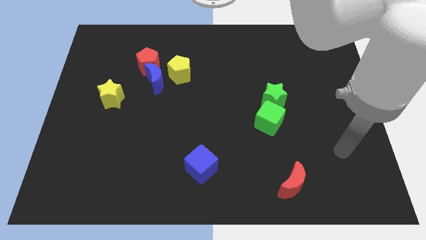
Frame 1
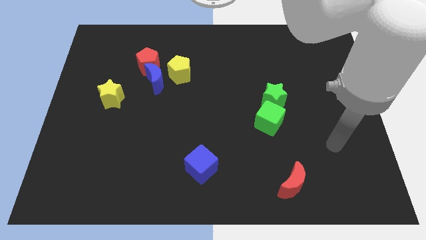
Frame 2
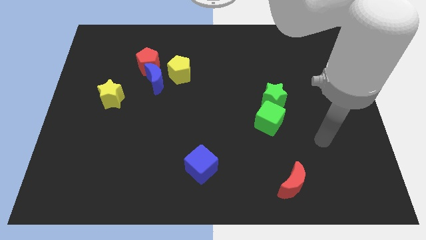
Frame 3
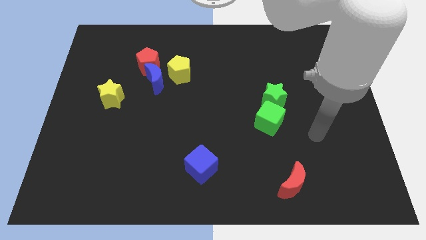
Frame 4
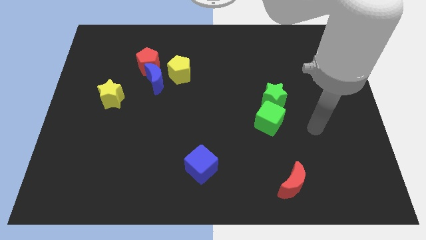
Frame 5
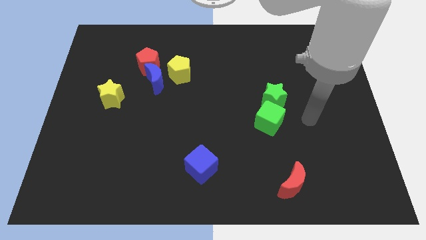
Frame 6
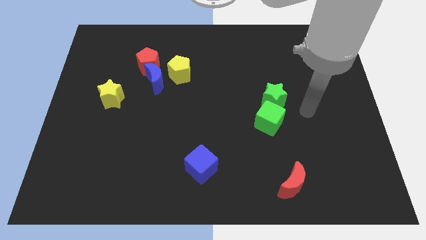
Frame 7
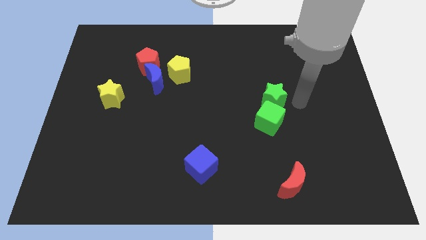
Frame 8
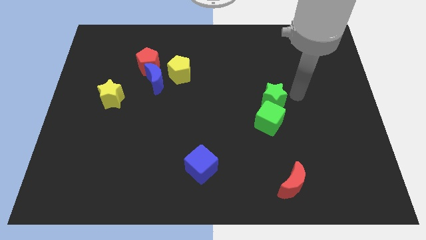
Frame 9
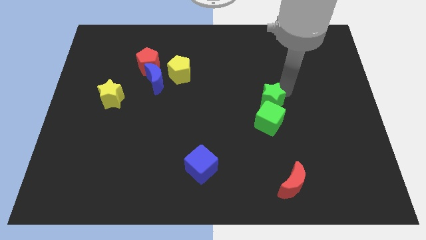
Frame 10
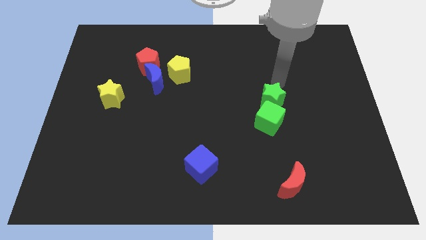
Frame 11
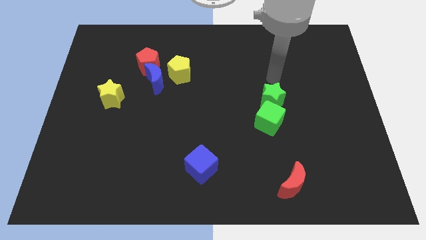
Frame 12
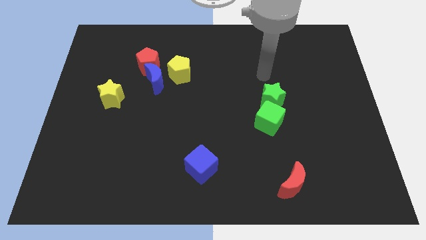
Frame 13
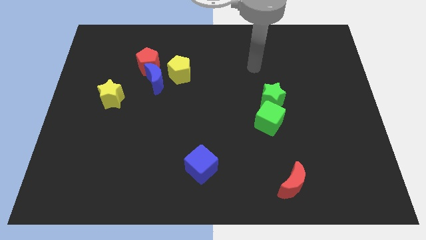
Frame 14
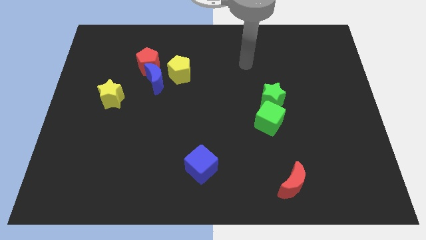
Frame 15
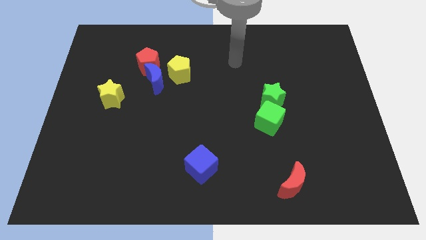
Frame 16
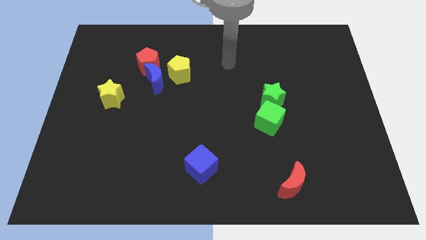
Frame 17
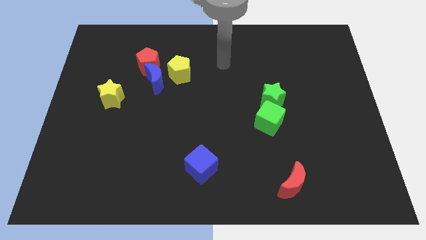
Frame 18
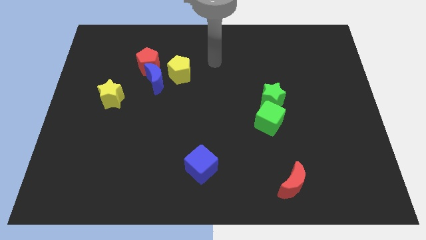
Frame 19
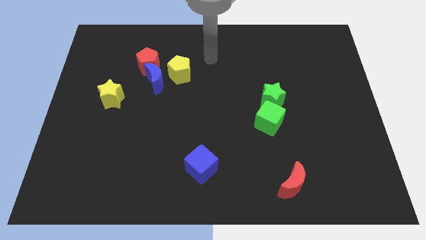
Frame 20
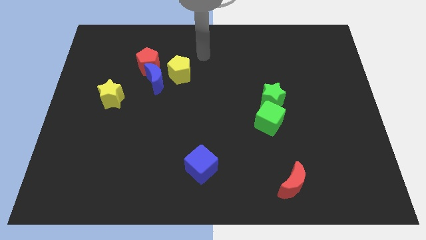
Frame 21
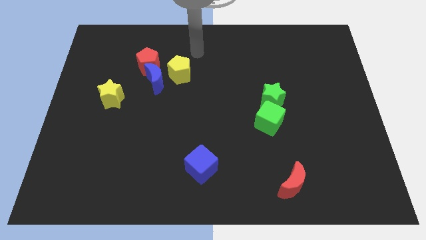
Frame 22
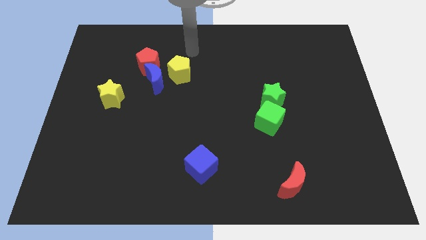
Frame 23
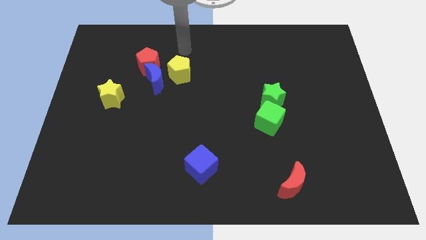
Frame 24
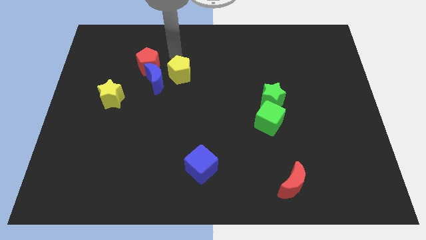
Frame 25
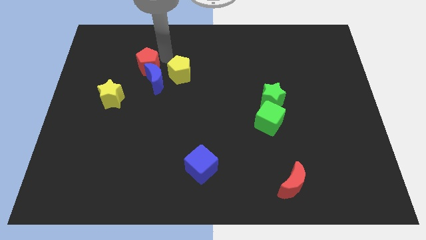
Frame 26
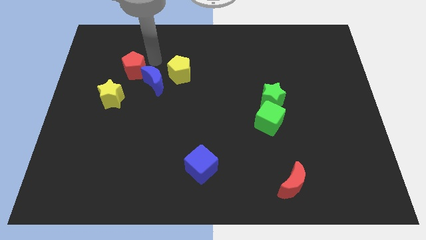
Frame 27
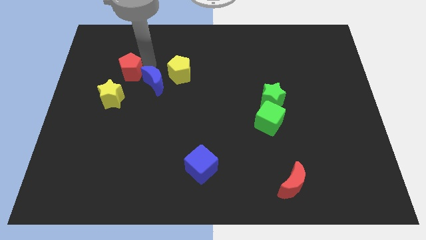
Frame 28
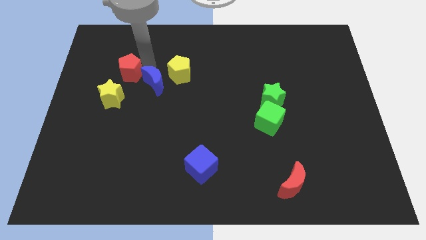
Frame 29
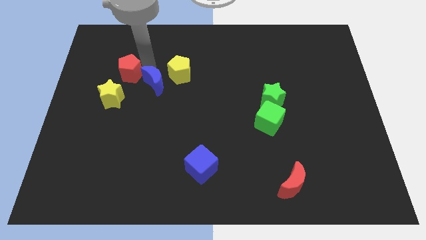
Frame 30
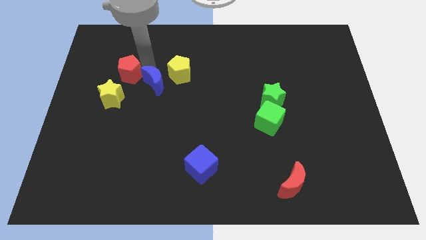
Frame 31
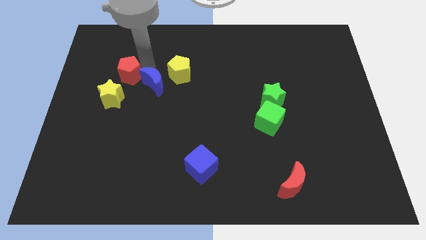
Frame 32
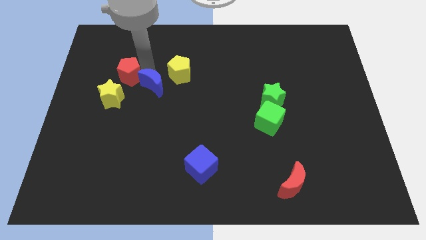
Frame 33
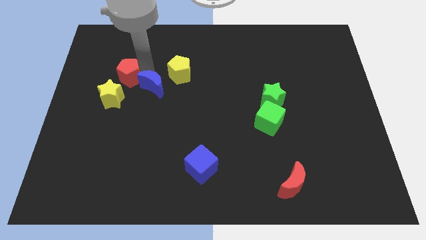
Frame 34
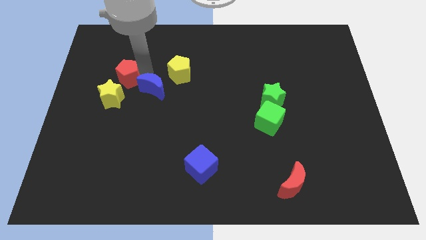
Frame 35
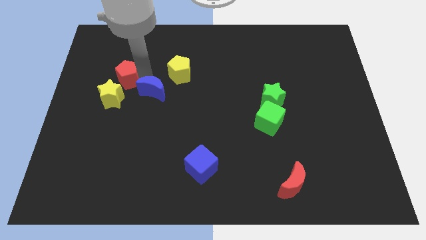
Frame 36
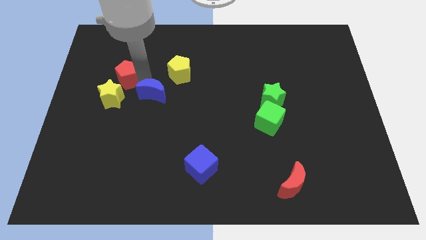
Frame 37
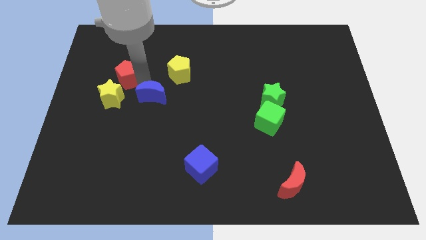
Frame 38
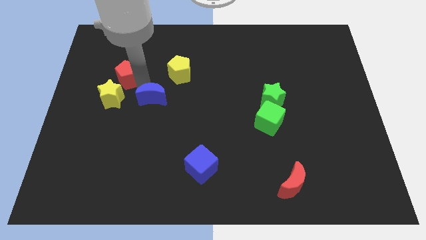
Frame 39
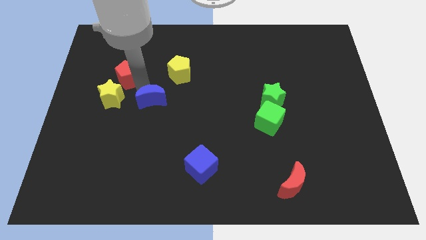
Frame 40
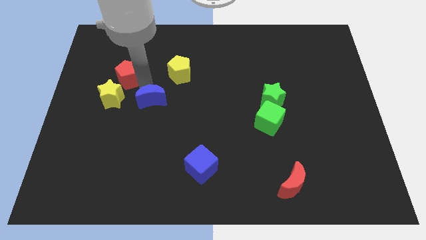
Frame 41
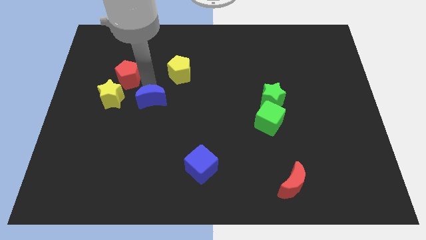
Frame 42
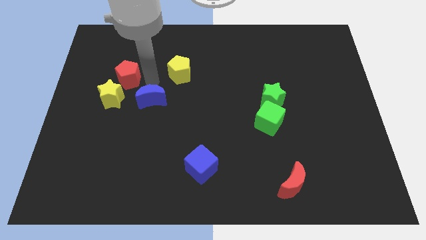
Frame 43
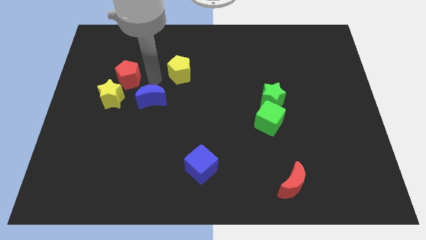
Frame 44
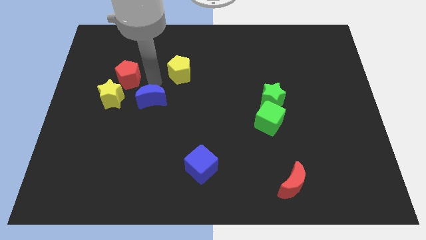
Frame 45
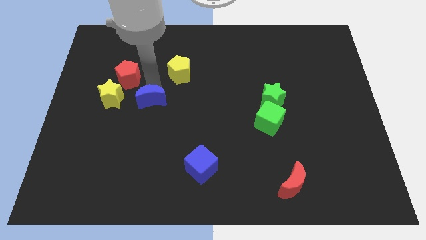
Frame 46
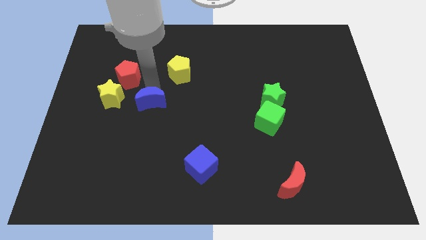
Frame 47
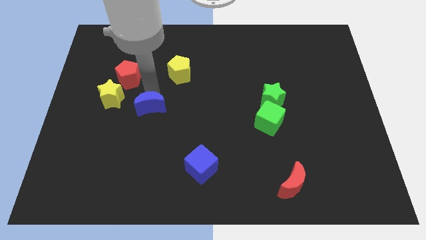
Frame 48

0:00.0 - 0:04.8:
move the blue moon away from the red pentagon and yellow pentagon

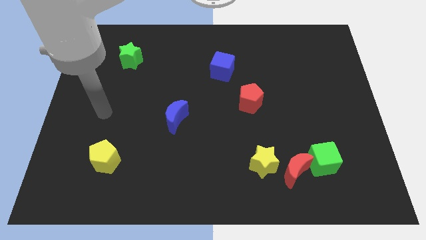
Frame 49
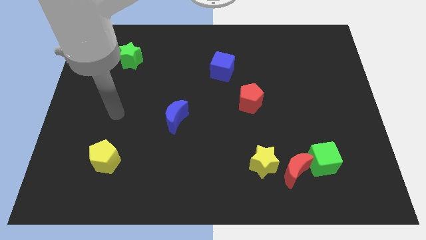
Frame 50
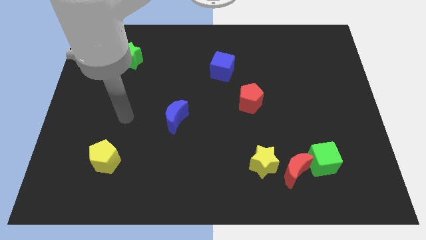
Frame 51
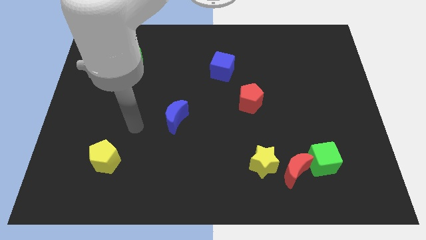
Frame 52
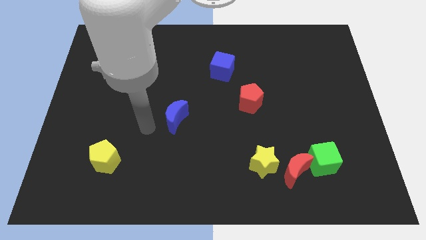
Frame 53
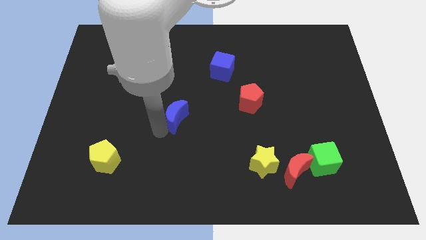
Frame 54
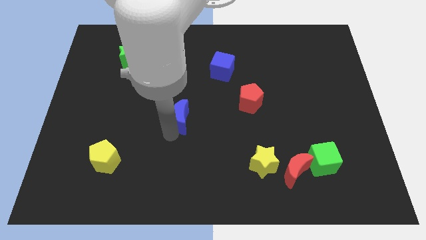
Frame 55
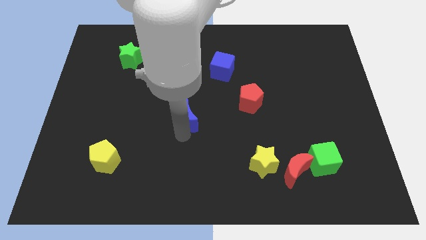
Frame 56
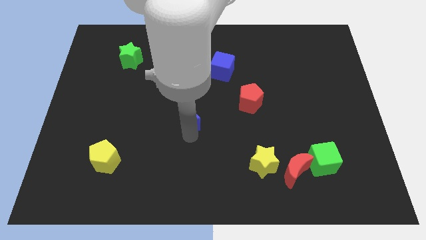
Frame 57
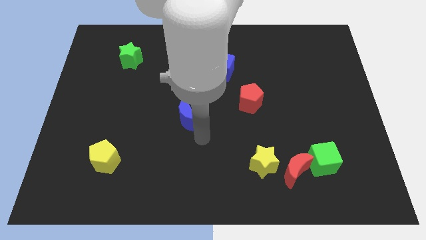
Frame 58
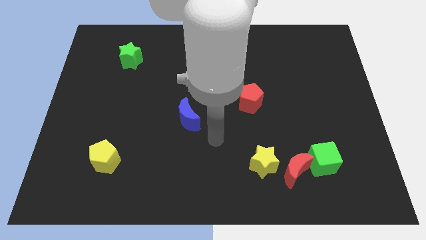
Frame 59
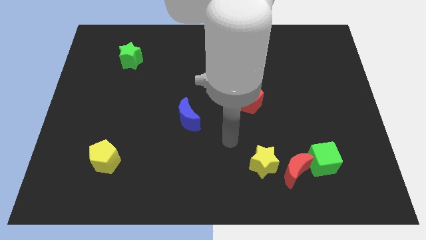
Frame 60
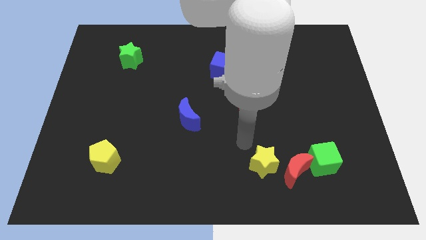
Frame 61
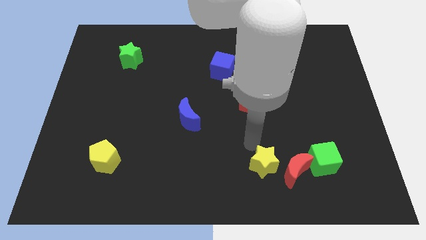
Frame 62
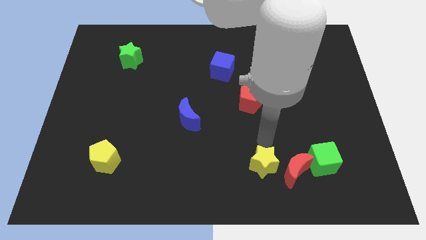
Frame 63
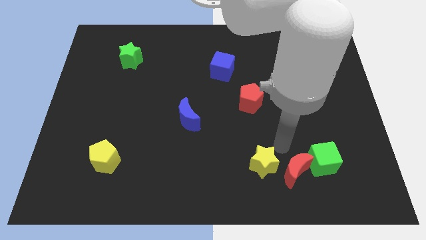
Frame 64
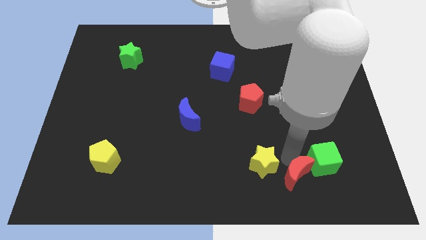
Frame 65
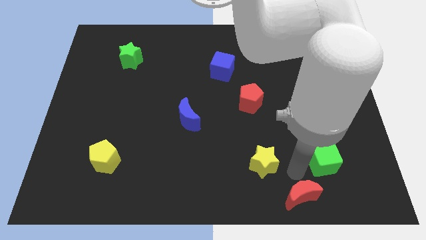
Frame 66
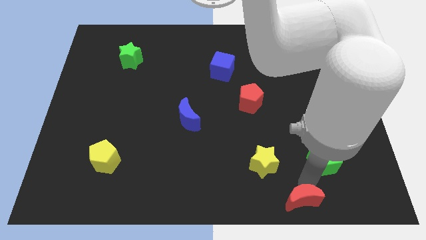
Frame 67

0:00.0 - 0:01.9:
separate the green cube from the red moon

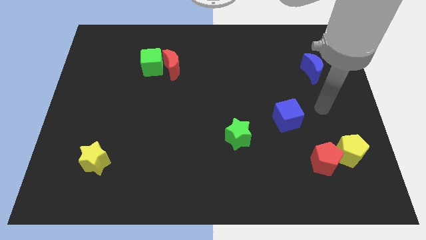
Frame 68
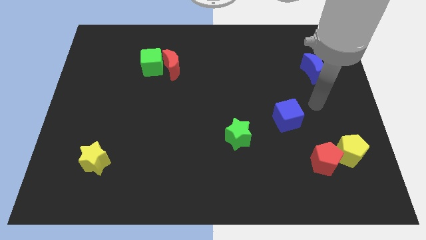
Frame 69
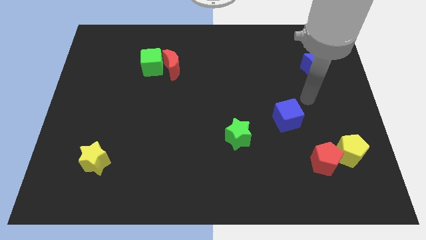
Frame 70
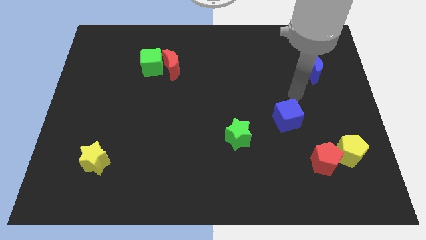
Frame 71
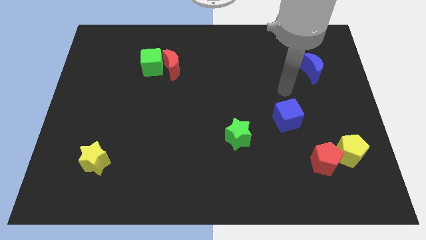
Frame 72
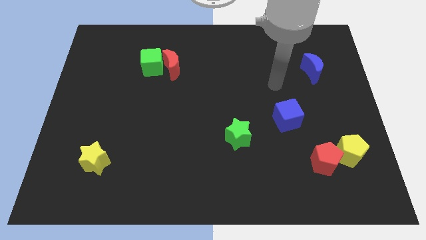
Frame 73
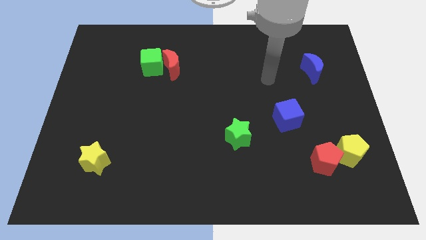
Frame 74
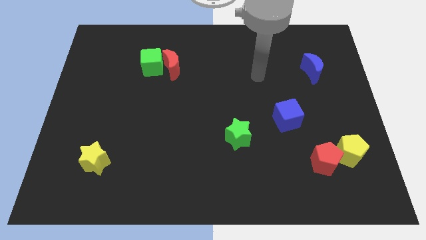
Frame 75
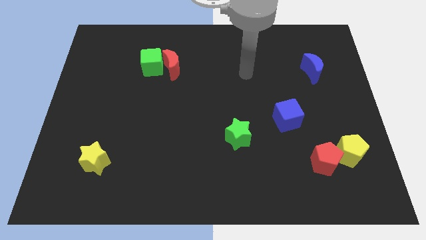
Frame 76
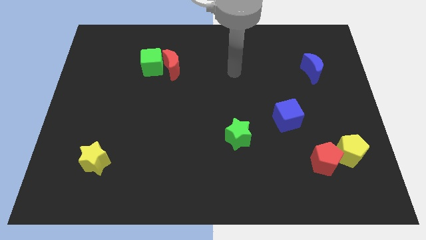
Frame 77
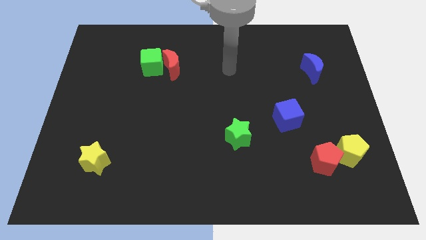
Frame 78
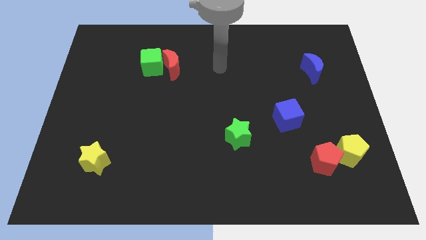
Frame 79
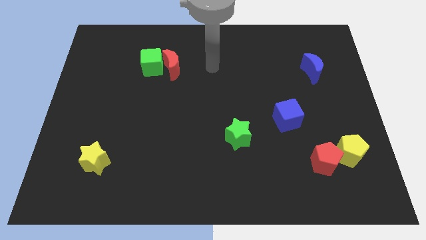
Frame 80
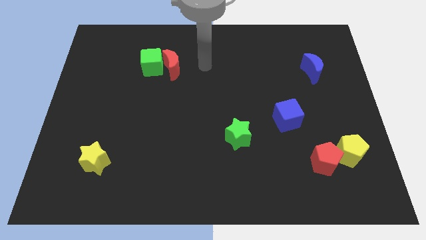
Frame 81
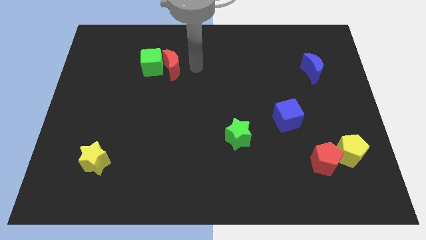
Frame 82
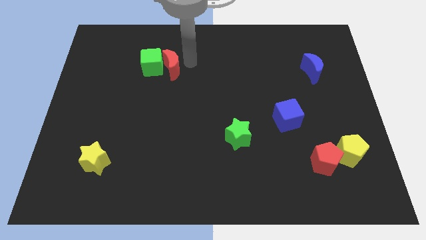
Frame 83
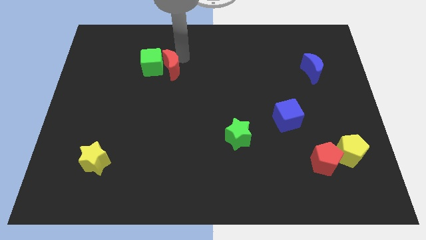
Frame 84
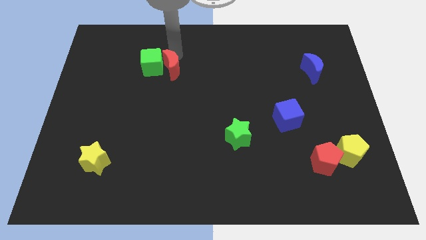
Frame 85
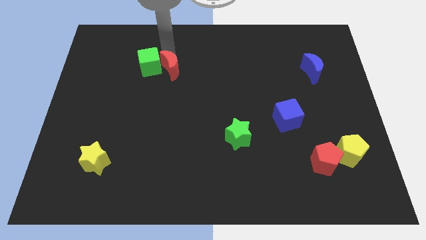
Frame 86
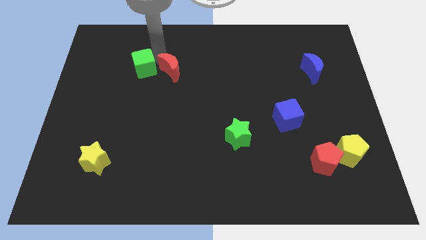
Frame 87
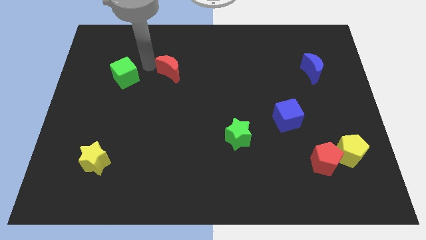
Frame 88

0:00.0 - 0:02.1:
separate the red moon from the green cube

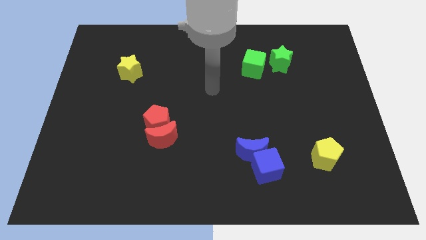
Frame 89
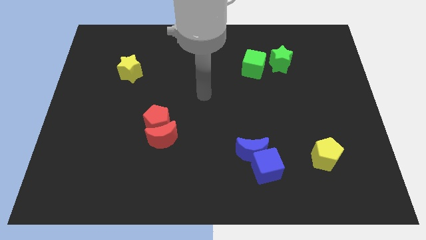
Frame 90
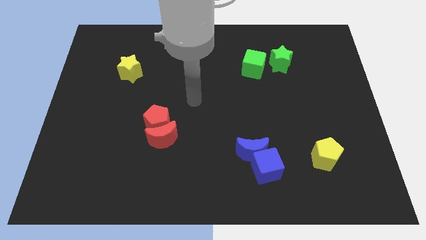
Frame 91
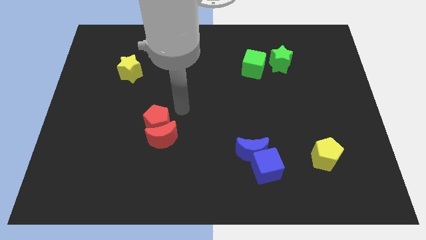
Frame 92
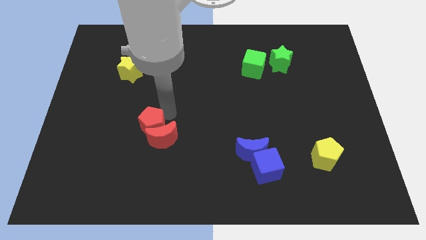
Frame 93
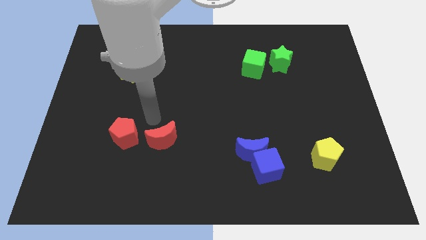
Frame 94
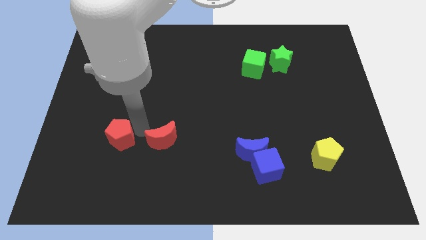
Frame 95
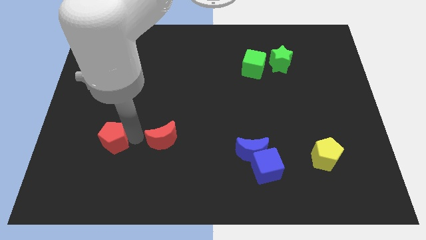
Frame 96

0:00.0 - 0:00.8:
separate the red moon from the red pentagon
